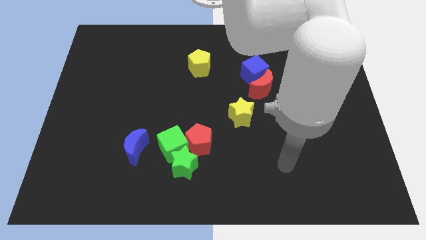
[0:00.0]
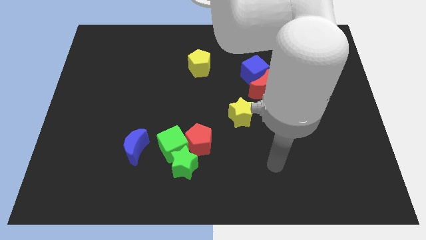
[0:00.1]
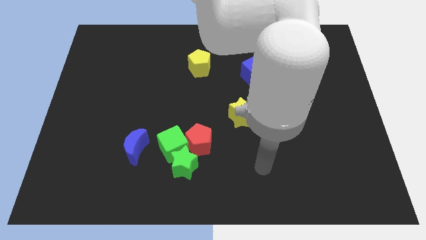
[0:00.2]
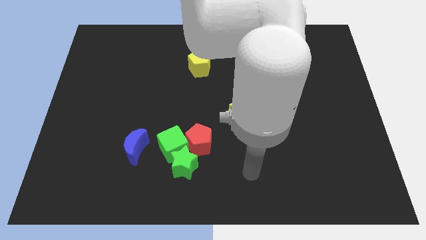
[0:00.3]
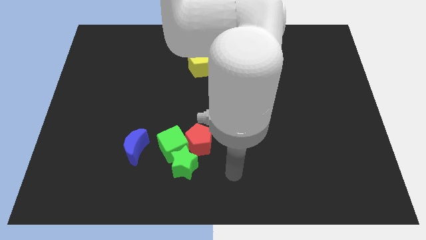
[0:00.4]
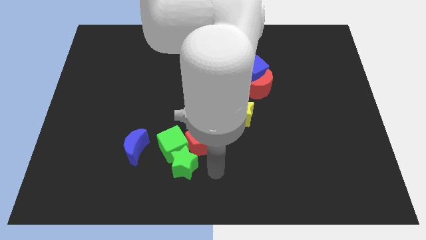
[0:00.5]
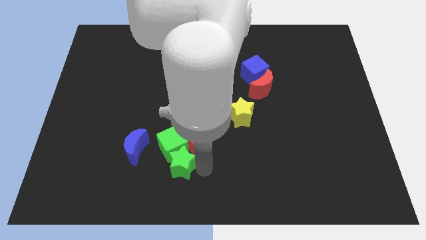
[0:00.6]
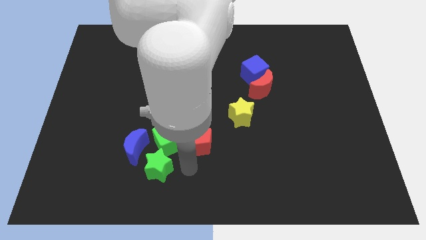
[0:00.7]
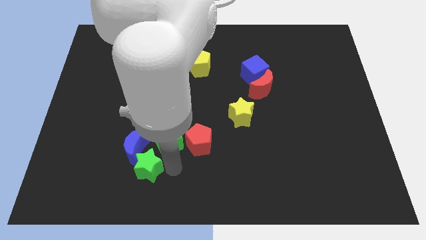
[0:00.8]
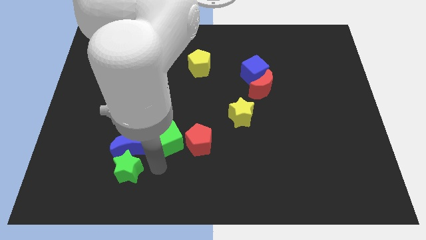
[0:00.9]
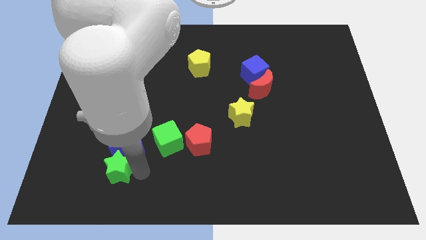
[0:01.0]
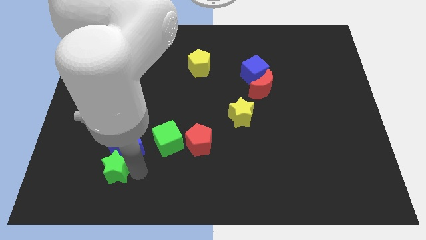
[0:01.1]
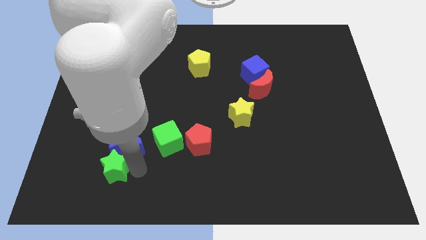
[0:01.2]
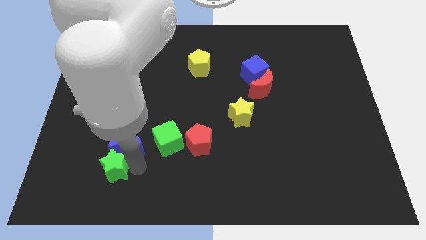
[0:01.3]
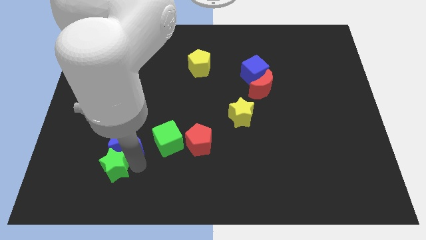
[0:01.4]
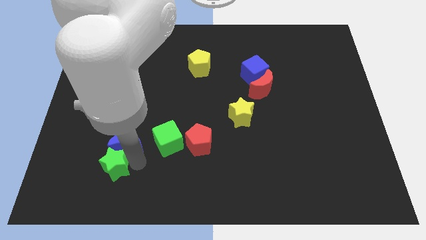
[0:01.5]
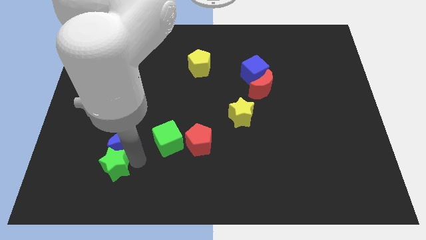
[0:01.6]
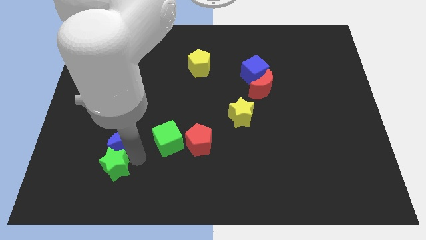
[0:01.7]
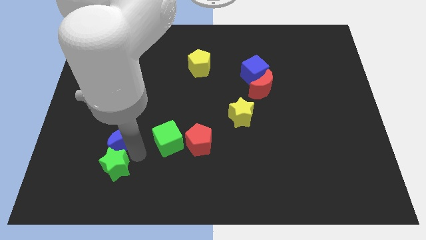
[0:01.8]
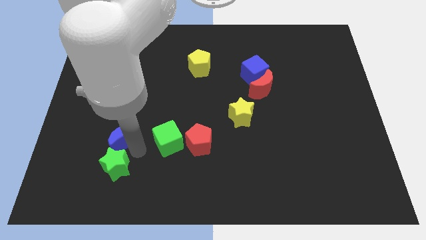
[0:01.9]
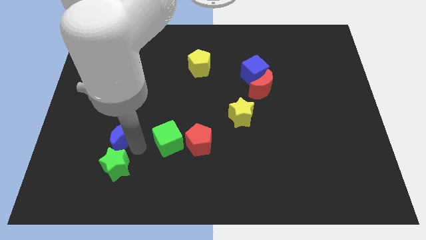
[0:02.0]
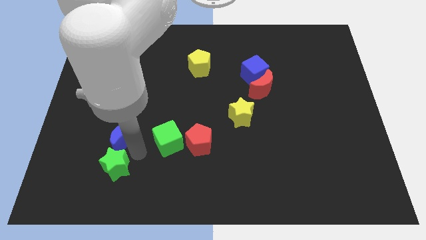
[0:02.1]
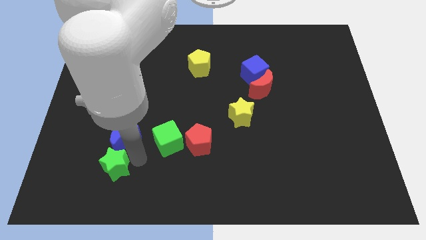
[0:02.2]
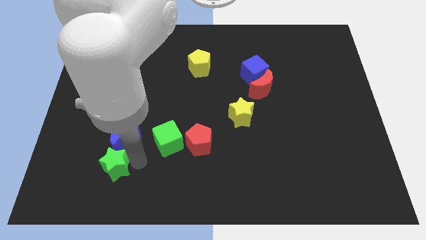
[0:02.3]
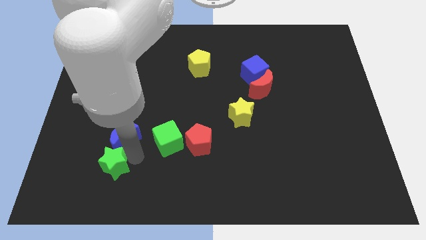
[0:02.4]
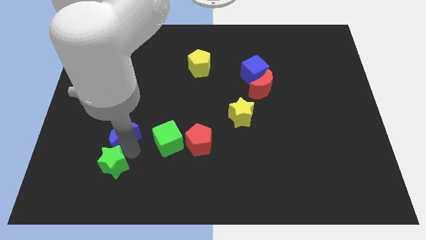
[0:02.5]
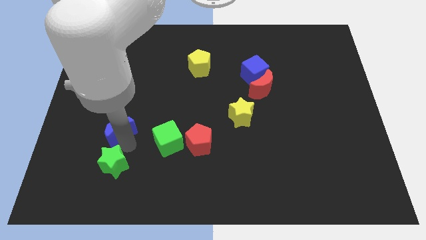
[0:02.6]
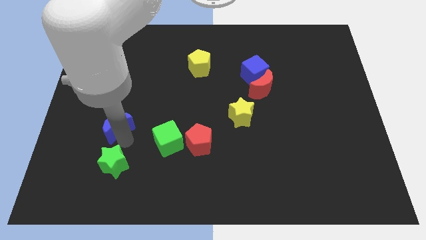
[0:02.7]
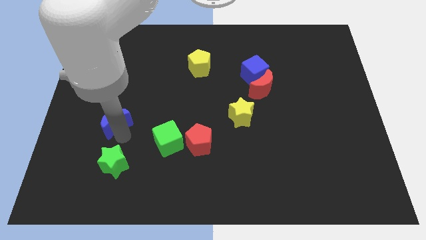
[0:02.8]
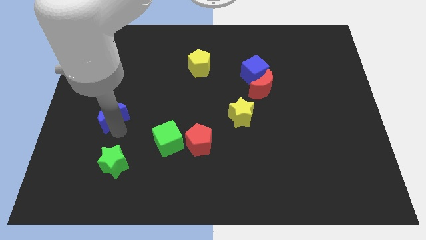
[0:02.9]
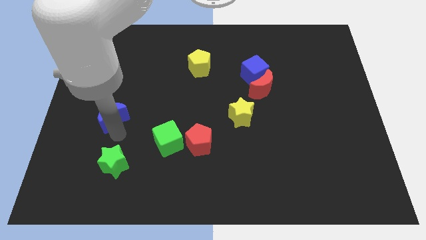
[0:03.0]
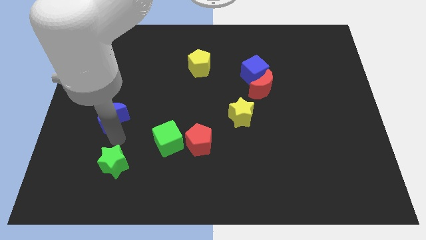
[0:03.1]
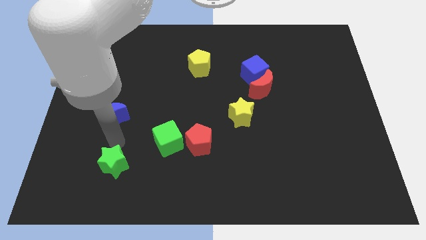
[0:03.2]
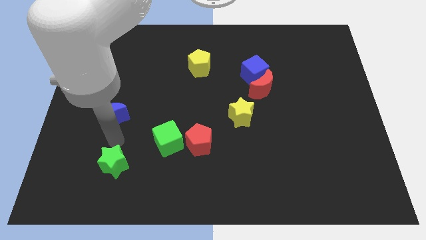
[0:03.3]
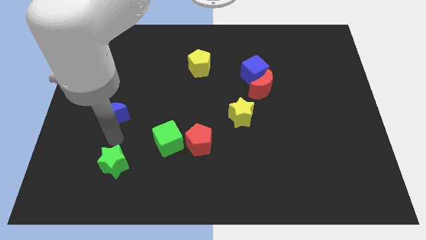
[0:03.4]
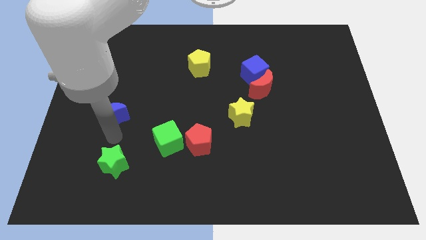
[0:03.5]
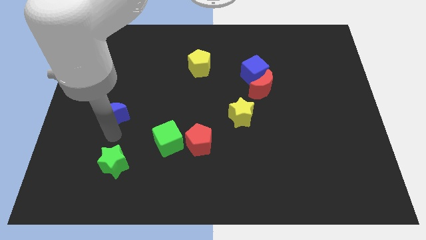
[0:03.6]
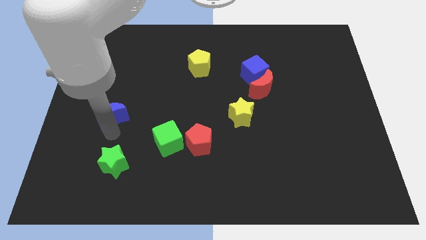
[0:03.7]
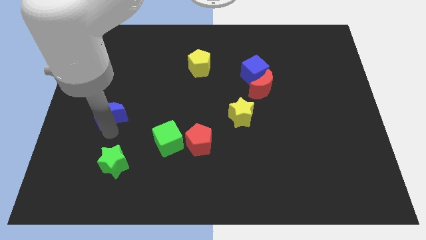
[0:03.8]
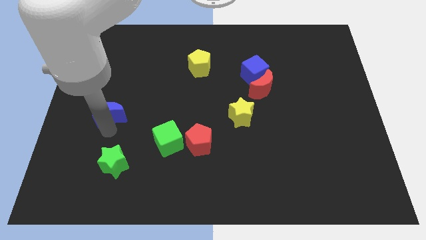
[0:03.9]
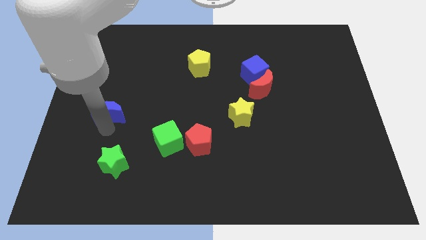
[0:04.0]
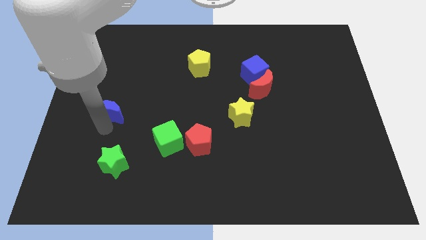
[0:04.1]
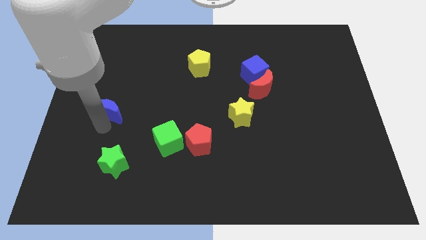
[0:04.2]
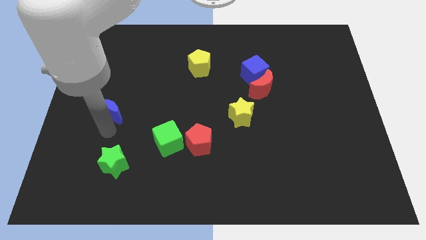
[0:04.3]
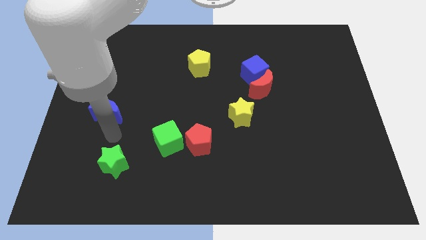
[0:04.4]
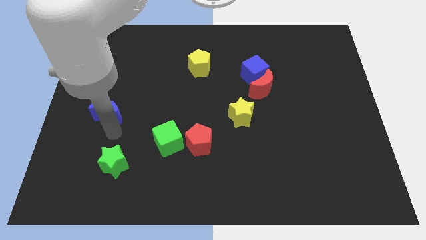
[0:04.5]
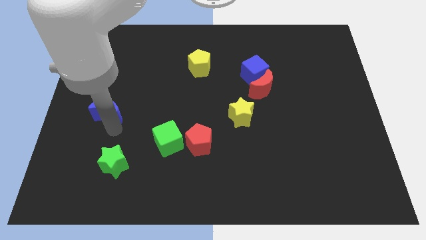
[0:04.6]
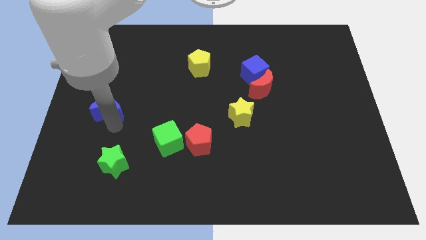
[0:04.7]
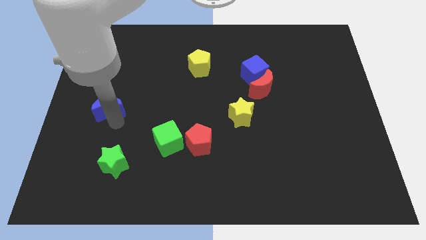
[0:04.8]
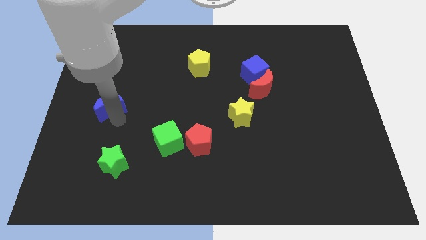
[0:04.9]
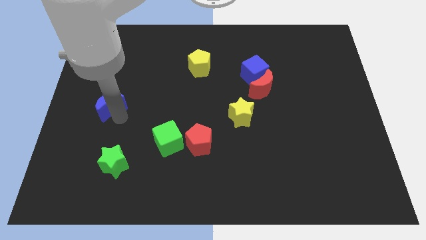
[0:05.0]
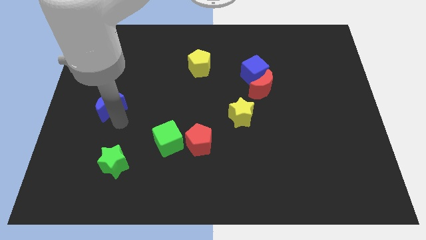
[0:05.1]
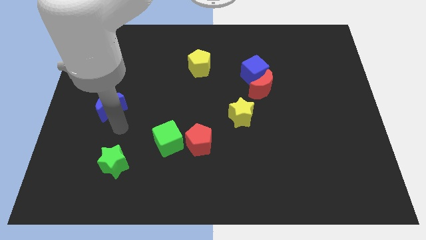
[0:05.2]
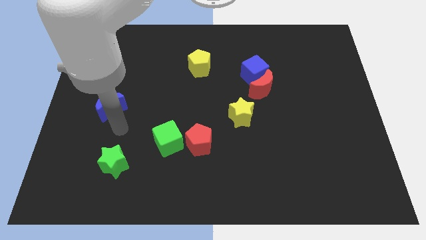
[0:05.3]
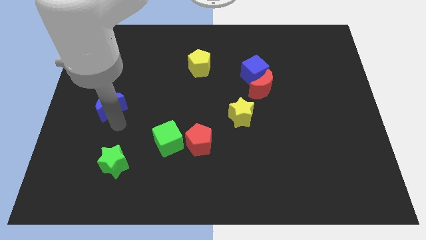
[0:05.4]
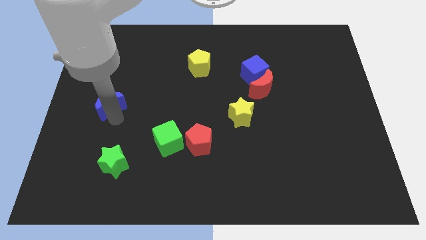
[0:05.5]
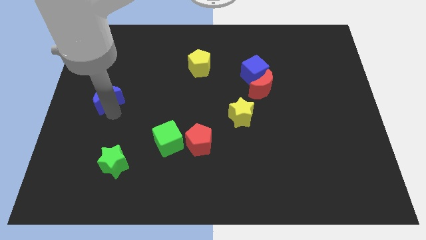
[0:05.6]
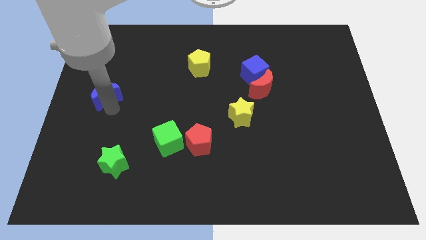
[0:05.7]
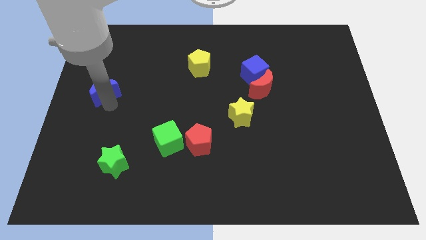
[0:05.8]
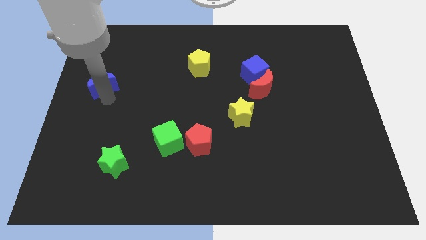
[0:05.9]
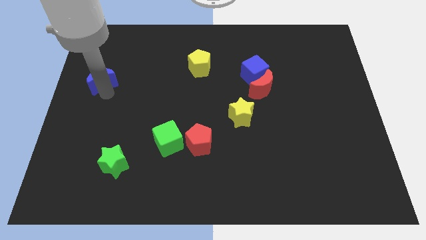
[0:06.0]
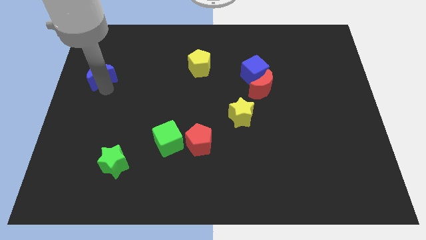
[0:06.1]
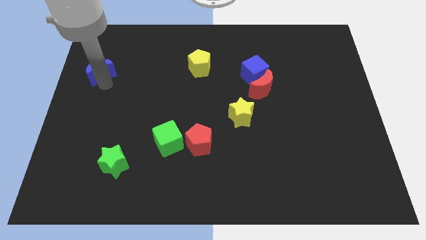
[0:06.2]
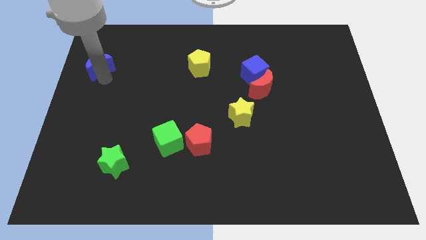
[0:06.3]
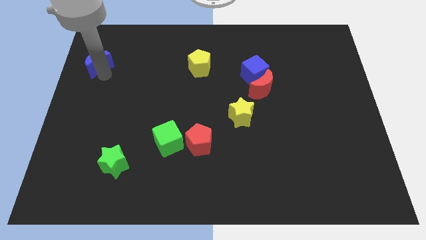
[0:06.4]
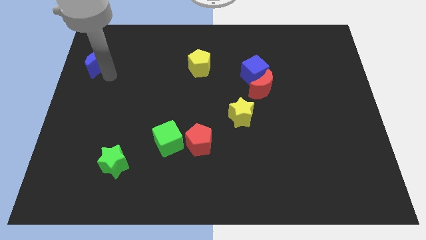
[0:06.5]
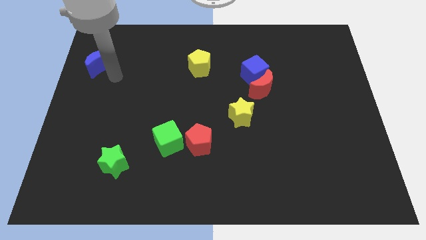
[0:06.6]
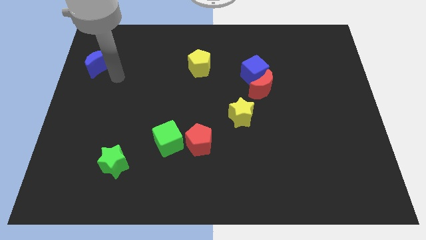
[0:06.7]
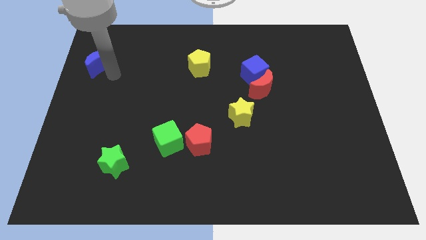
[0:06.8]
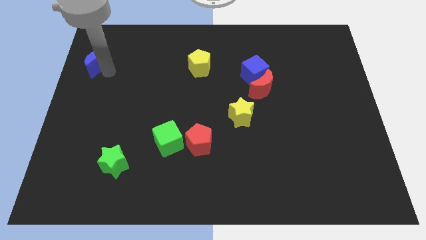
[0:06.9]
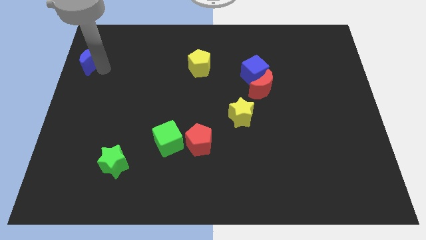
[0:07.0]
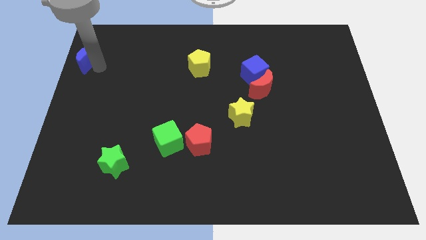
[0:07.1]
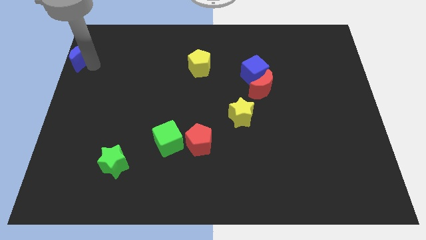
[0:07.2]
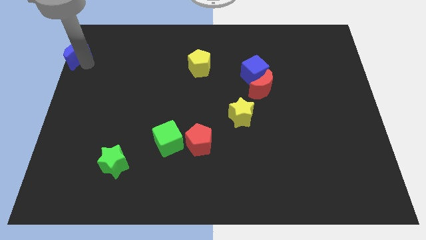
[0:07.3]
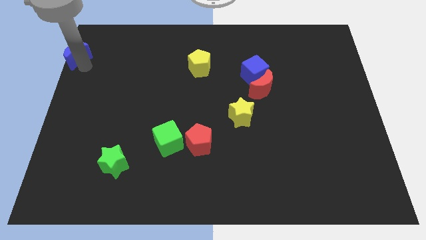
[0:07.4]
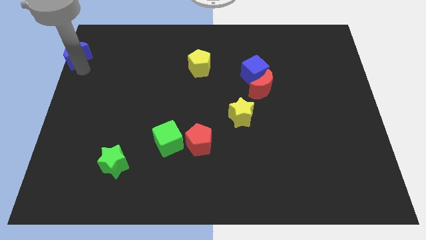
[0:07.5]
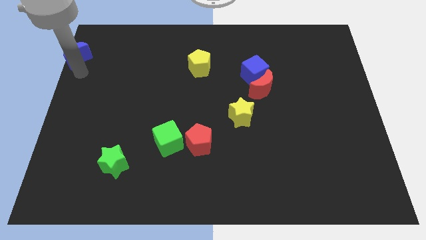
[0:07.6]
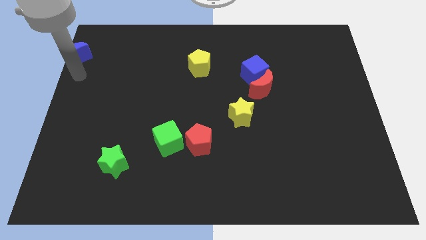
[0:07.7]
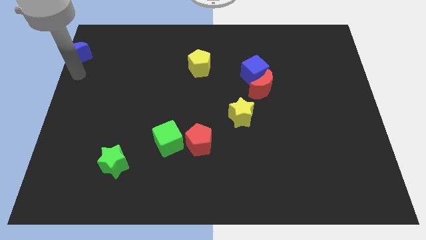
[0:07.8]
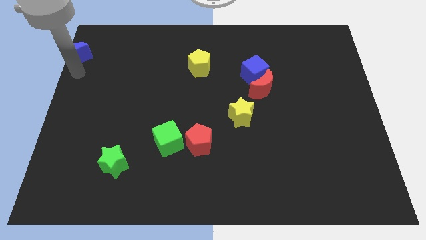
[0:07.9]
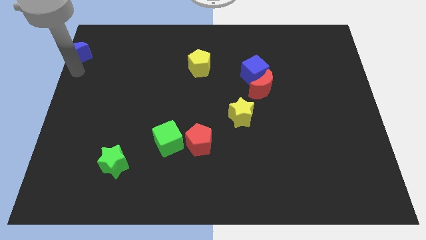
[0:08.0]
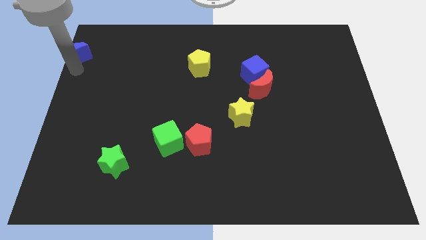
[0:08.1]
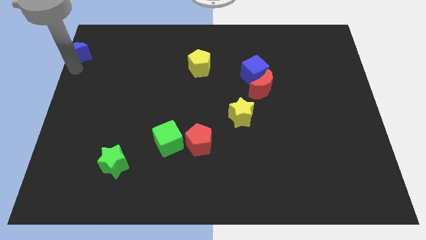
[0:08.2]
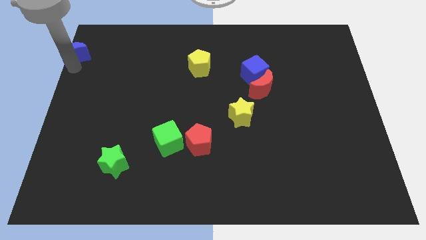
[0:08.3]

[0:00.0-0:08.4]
put the blue moon to the top left
